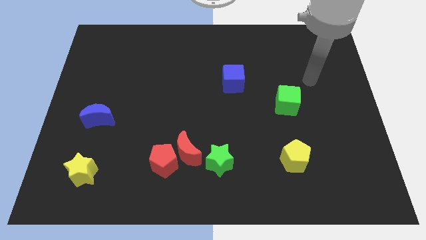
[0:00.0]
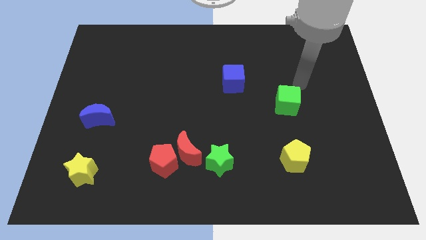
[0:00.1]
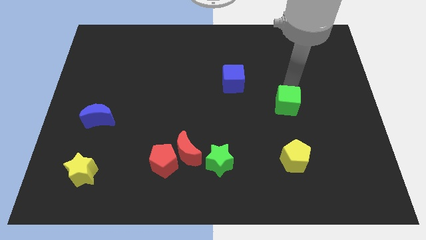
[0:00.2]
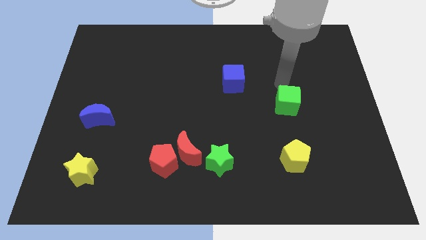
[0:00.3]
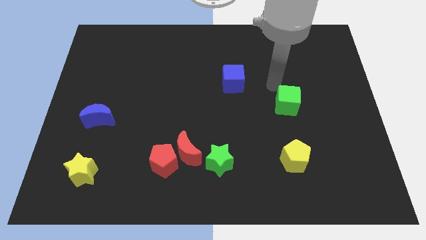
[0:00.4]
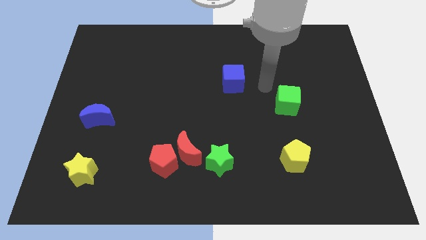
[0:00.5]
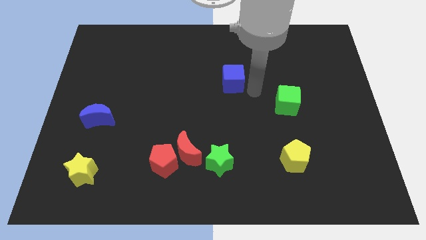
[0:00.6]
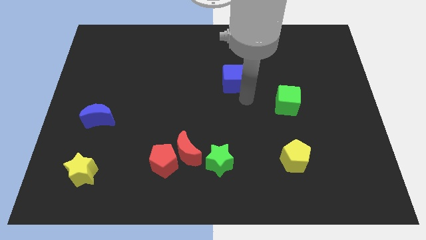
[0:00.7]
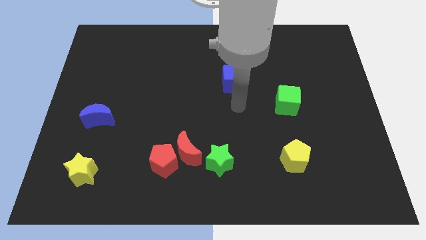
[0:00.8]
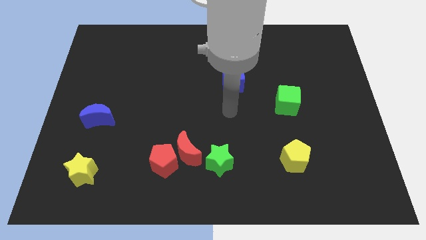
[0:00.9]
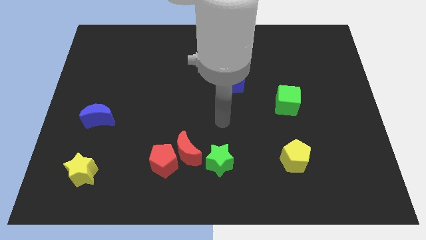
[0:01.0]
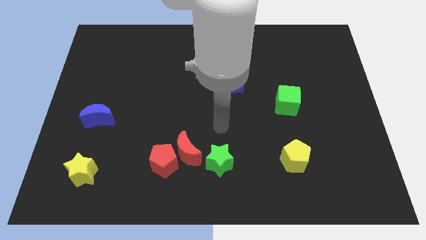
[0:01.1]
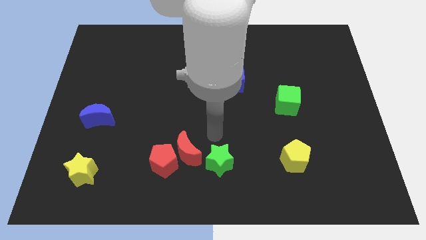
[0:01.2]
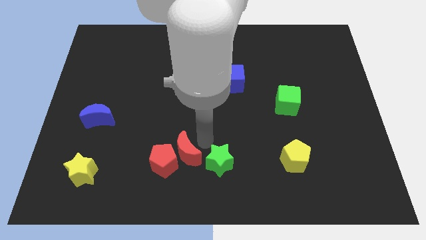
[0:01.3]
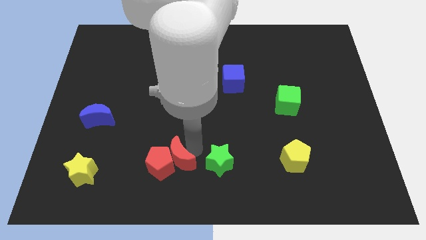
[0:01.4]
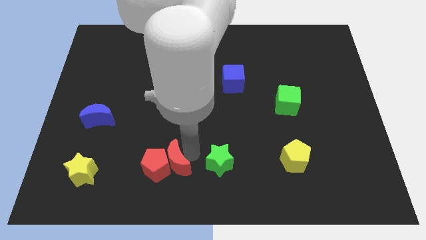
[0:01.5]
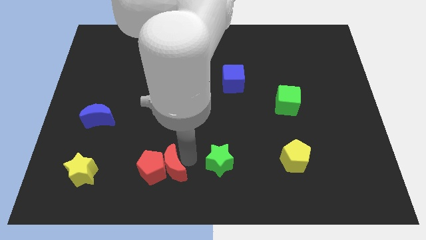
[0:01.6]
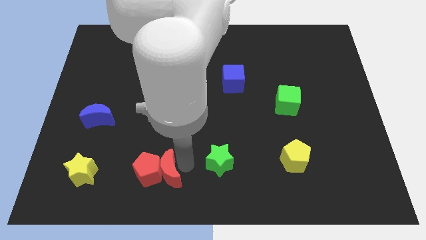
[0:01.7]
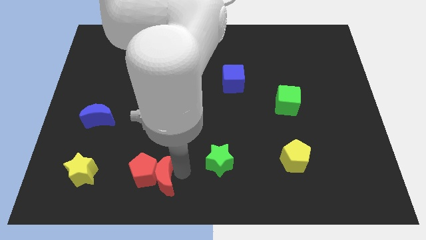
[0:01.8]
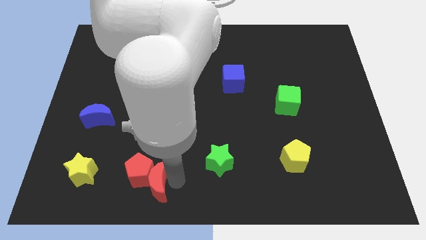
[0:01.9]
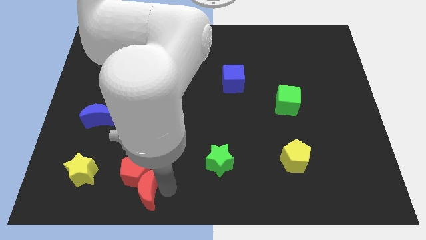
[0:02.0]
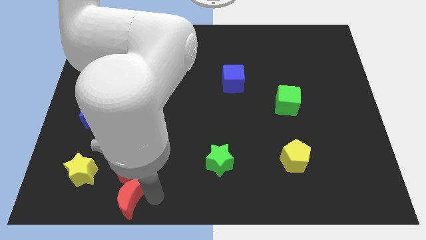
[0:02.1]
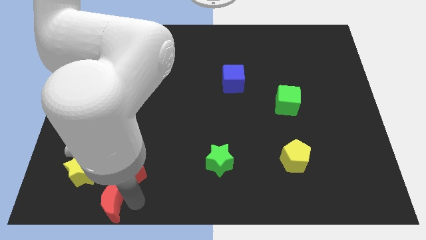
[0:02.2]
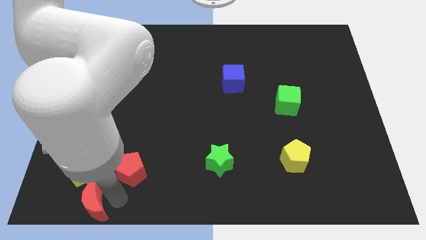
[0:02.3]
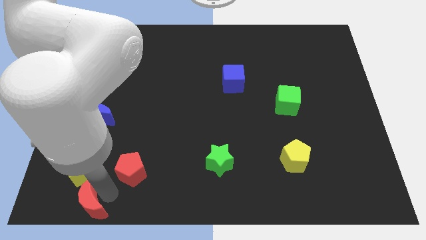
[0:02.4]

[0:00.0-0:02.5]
pull the red pentagon apart from the red moon

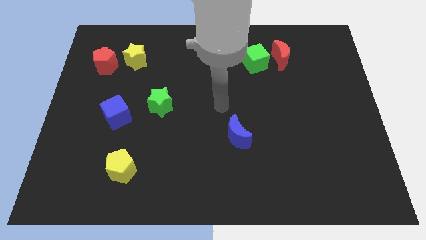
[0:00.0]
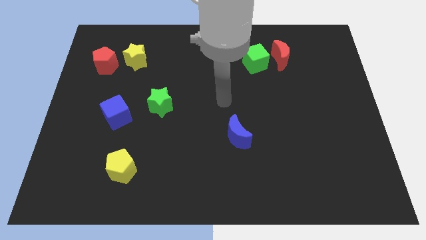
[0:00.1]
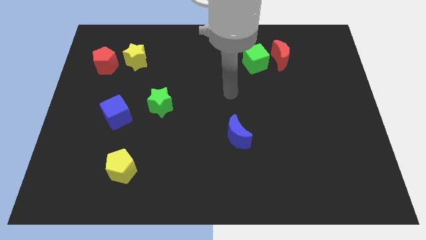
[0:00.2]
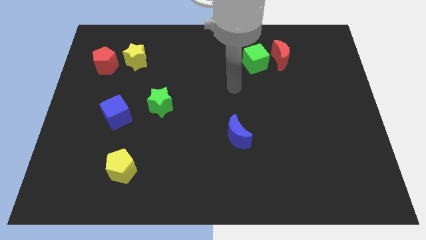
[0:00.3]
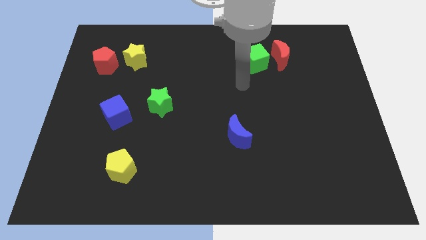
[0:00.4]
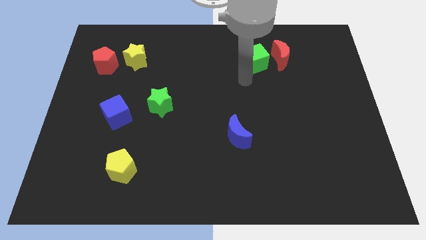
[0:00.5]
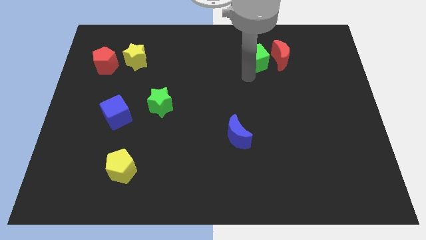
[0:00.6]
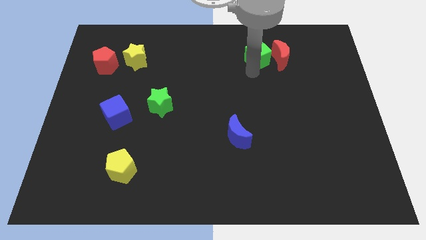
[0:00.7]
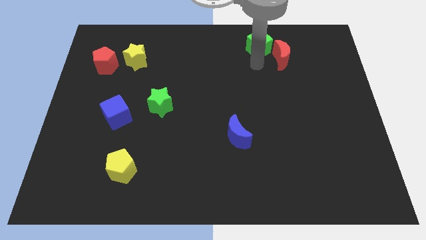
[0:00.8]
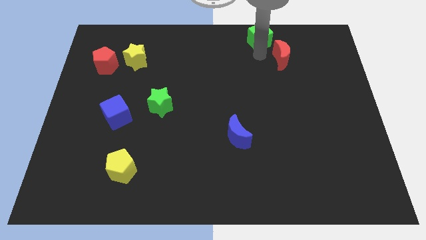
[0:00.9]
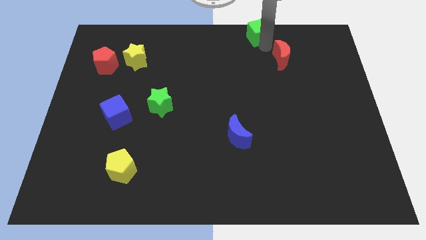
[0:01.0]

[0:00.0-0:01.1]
separate the red moon from the green cube

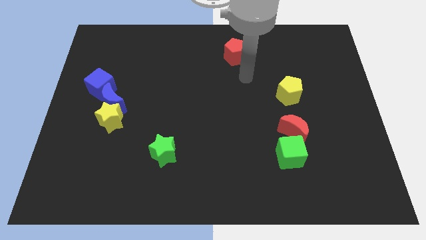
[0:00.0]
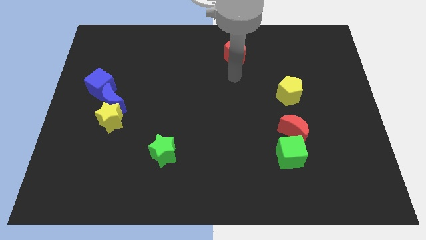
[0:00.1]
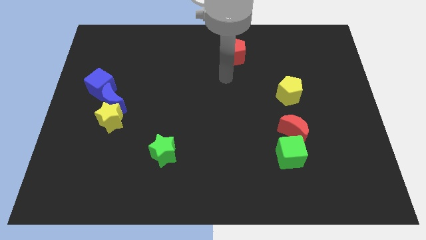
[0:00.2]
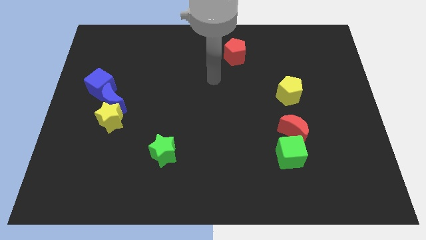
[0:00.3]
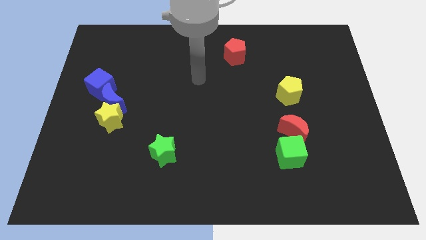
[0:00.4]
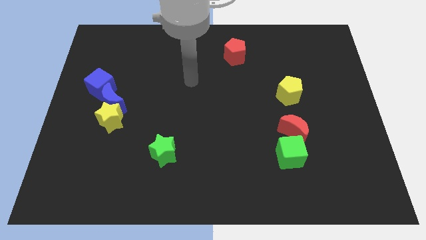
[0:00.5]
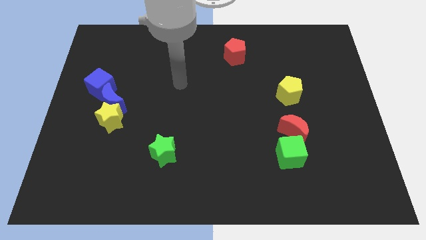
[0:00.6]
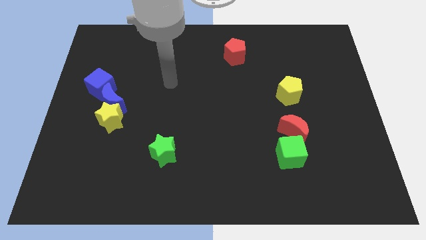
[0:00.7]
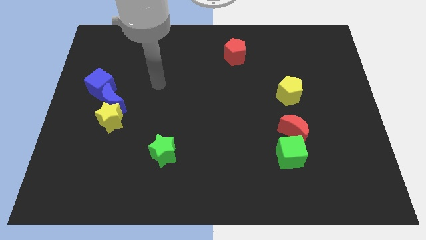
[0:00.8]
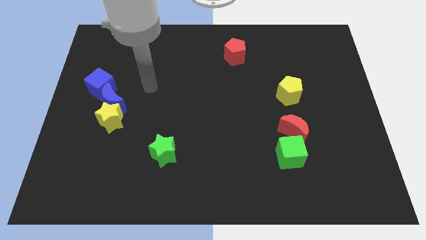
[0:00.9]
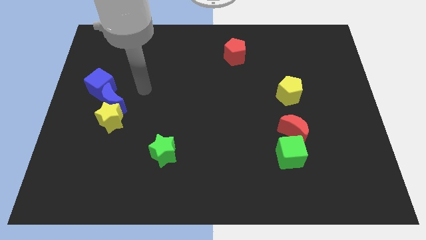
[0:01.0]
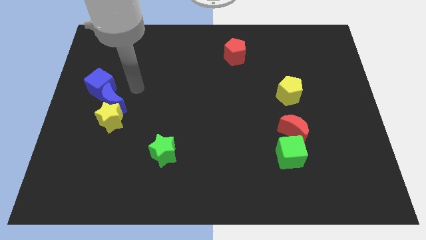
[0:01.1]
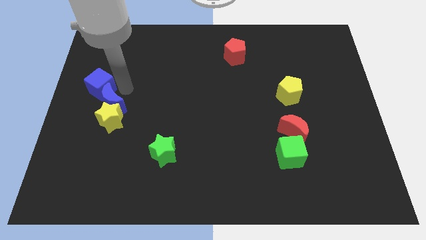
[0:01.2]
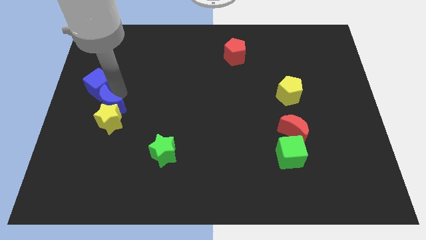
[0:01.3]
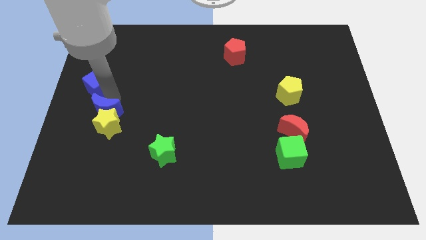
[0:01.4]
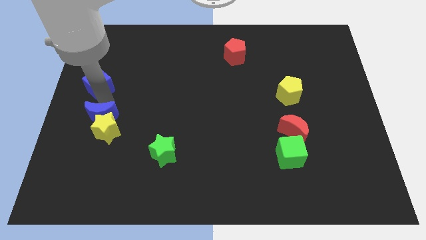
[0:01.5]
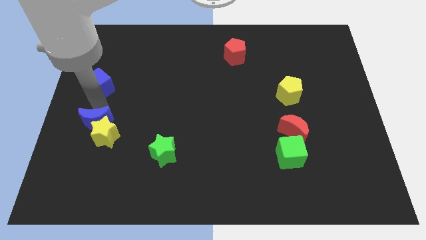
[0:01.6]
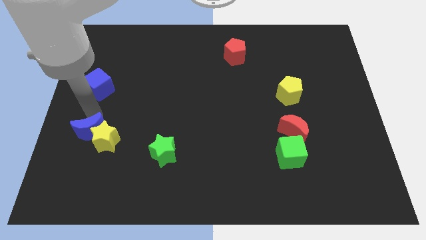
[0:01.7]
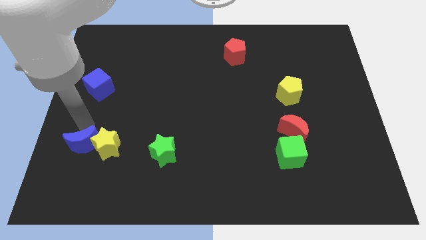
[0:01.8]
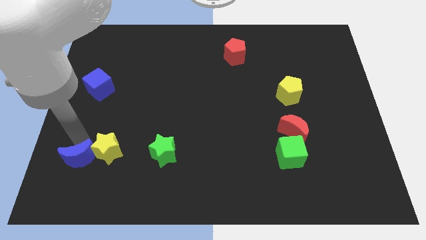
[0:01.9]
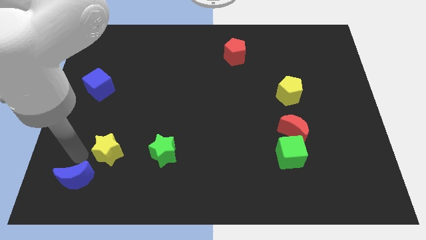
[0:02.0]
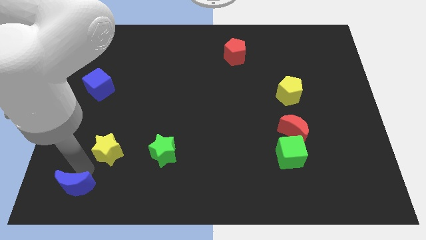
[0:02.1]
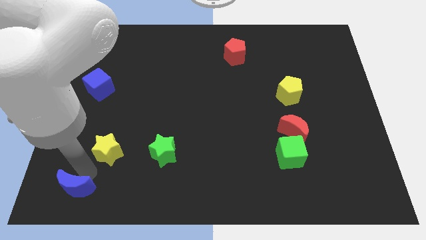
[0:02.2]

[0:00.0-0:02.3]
pull the yellow star apart from the blue moon

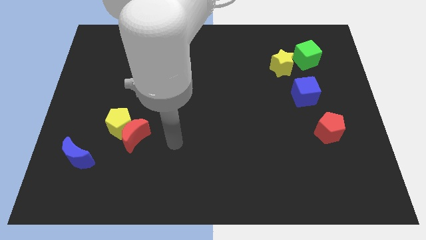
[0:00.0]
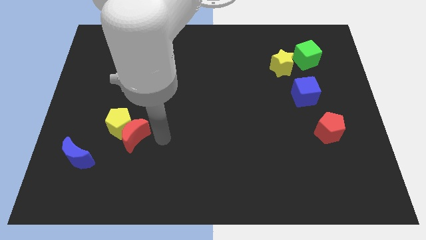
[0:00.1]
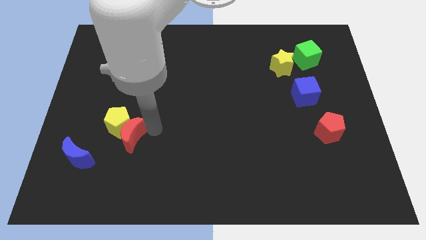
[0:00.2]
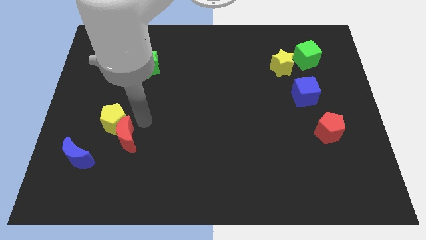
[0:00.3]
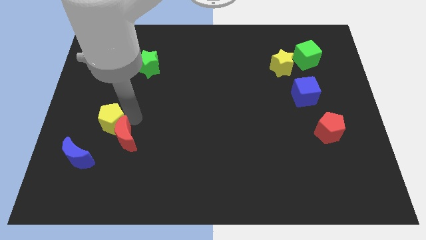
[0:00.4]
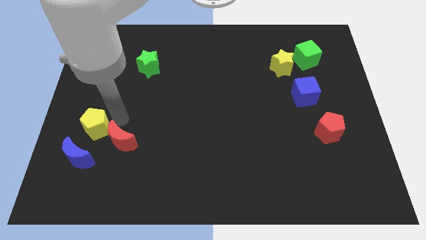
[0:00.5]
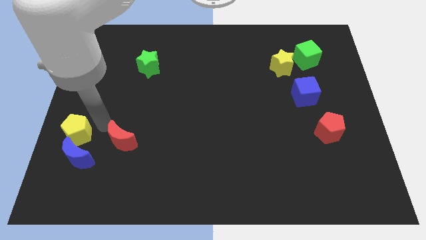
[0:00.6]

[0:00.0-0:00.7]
move the red moon away from the yellow pentagon

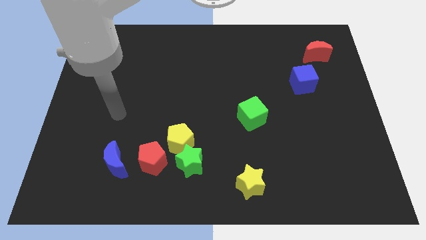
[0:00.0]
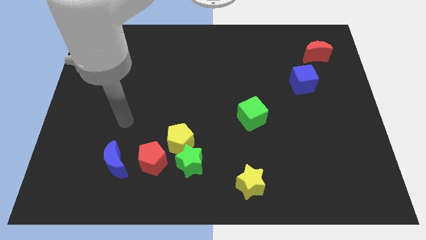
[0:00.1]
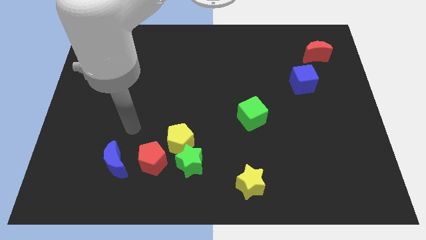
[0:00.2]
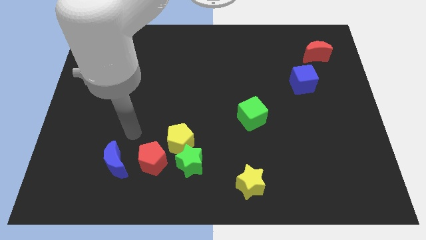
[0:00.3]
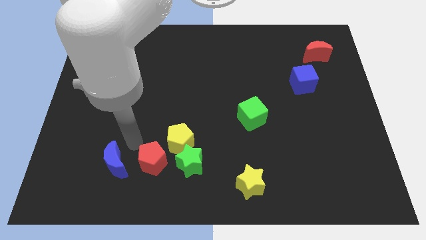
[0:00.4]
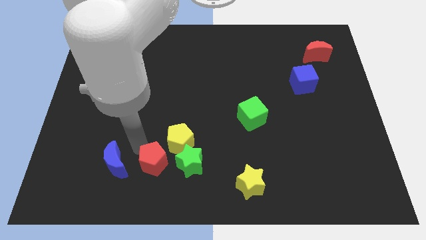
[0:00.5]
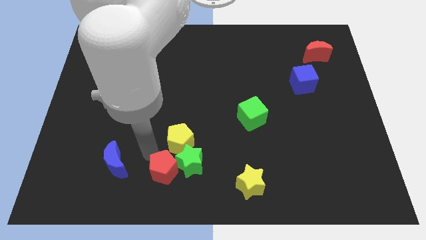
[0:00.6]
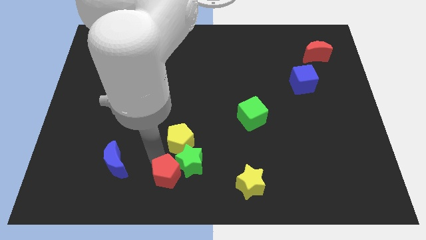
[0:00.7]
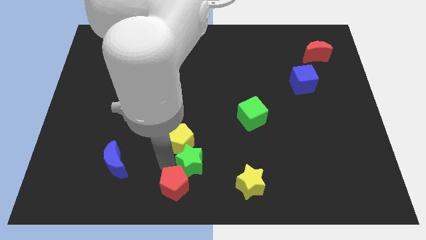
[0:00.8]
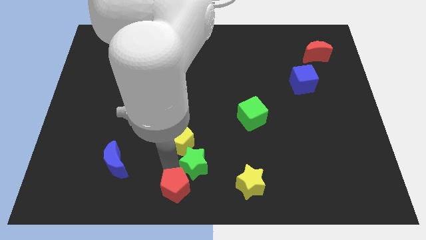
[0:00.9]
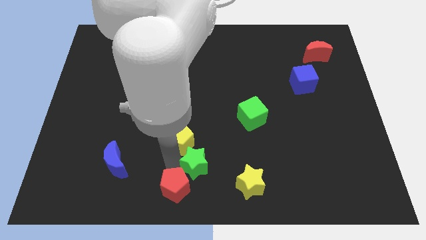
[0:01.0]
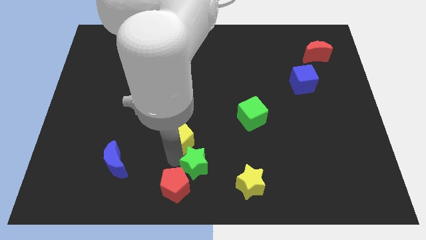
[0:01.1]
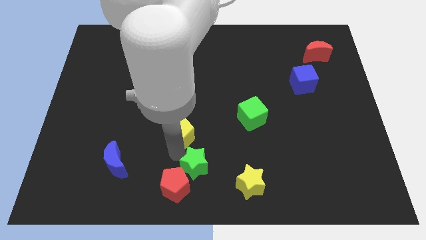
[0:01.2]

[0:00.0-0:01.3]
move the yellow pentagon away from the green star and red pentagon

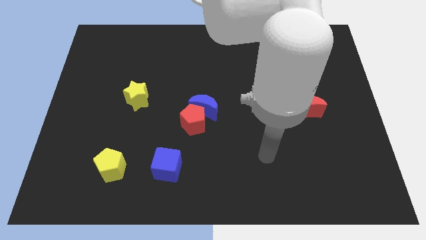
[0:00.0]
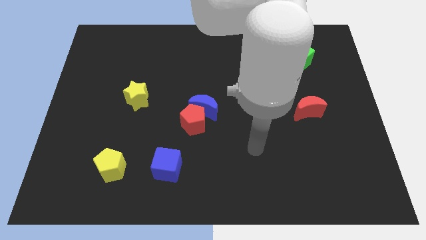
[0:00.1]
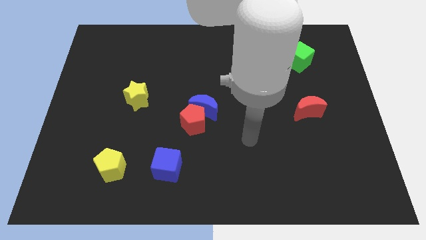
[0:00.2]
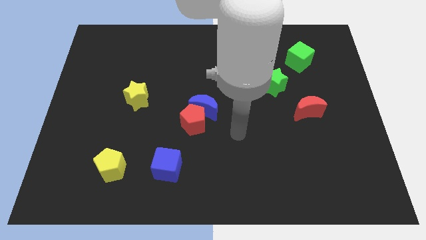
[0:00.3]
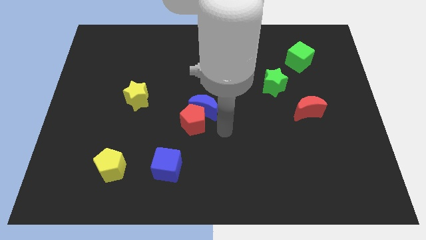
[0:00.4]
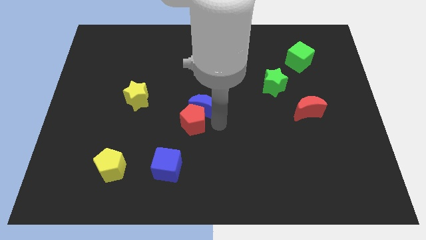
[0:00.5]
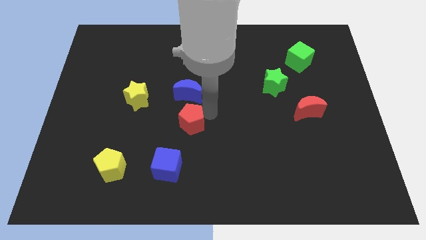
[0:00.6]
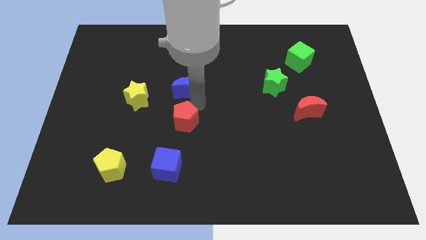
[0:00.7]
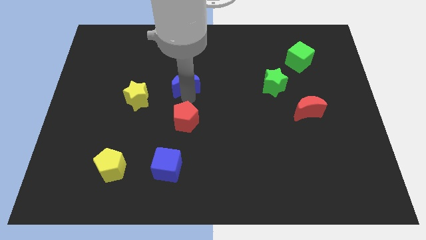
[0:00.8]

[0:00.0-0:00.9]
separate the red pentagon from the blue moon

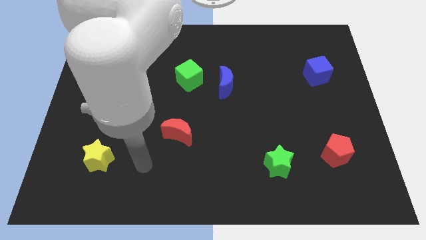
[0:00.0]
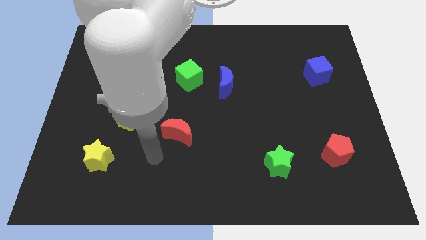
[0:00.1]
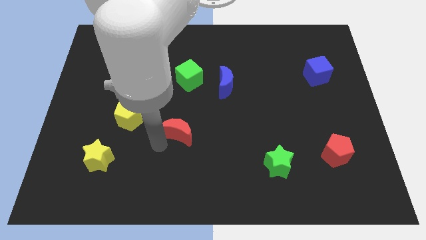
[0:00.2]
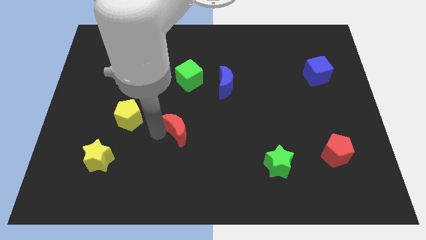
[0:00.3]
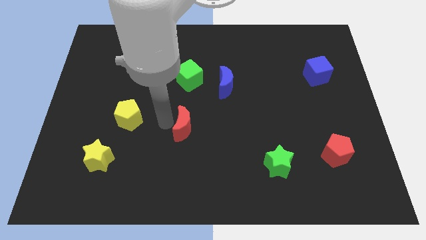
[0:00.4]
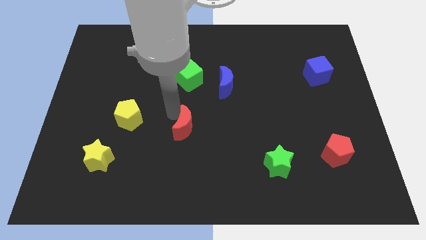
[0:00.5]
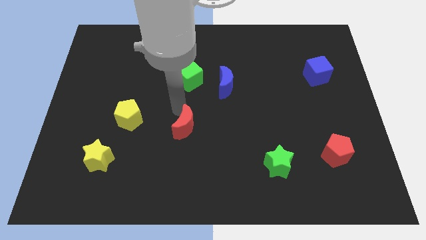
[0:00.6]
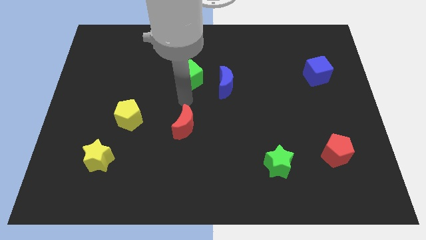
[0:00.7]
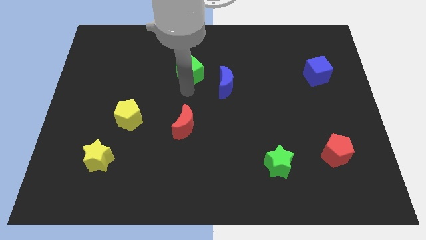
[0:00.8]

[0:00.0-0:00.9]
pull the blue moon apart from the green cube
